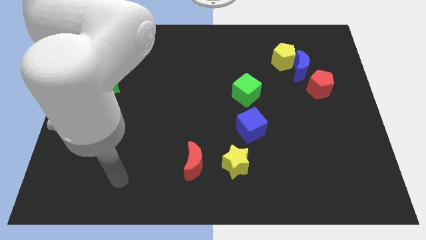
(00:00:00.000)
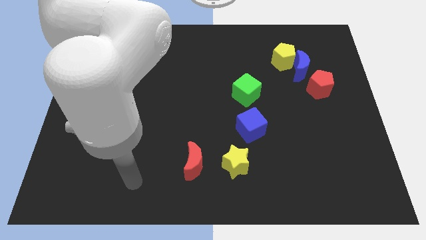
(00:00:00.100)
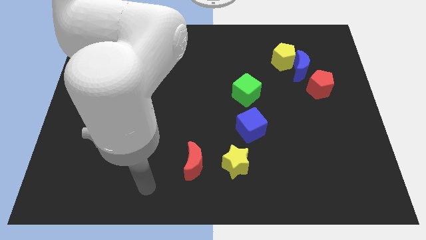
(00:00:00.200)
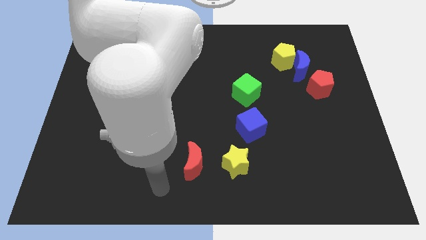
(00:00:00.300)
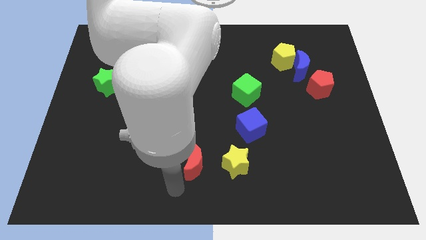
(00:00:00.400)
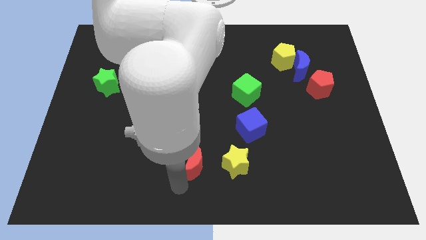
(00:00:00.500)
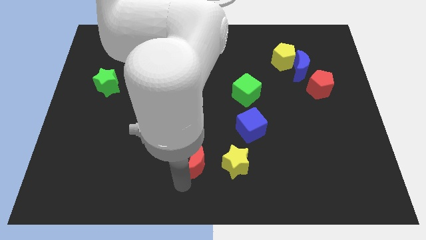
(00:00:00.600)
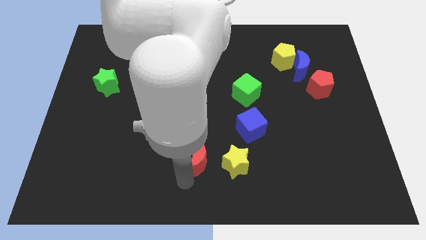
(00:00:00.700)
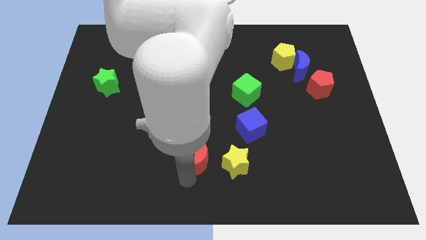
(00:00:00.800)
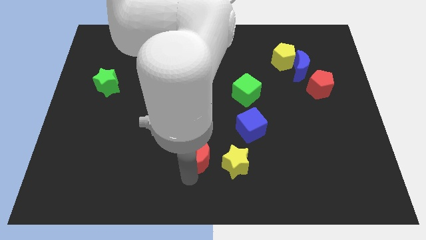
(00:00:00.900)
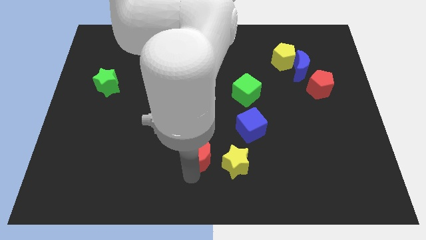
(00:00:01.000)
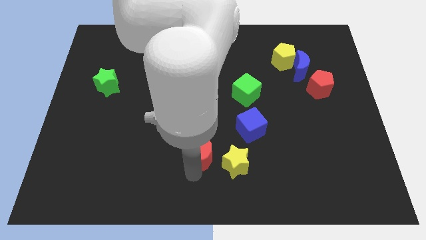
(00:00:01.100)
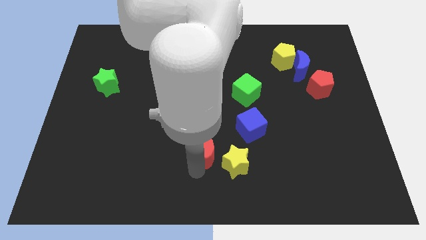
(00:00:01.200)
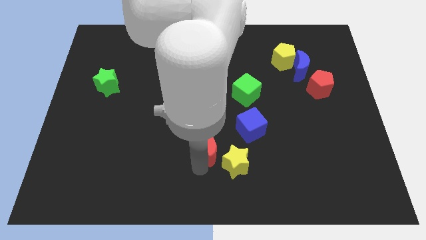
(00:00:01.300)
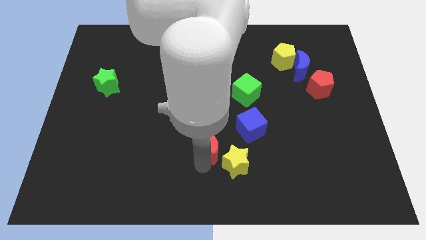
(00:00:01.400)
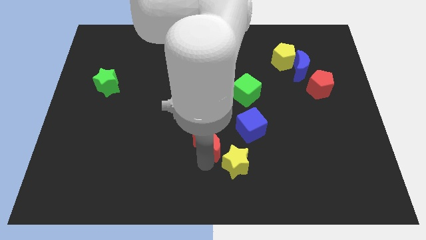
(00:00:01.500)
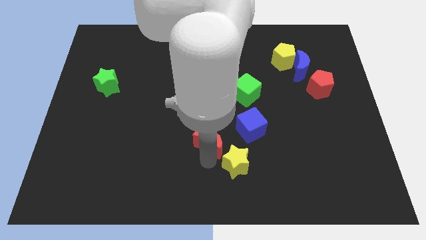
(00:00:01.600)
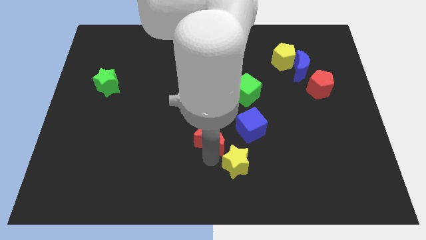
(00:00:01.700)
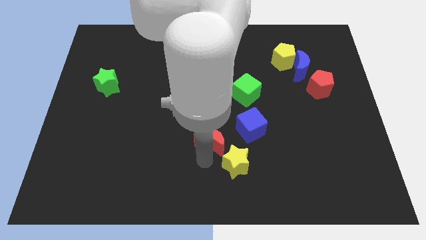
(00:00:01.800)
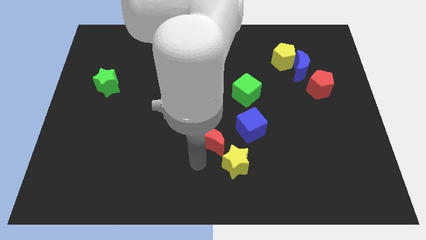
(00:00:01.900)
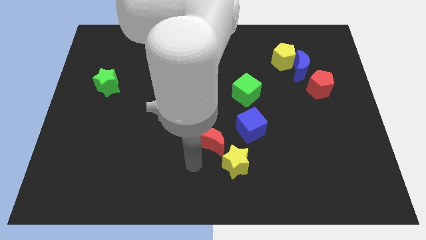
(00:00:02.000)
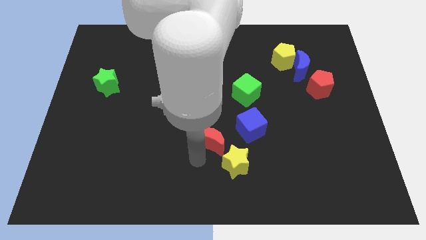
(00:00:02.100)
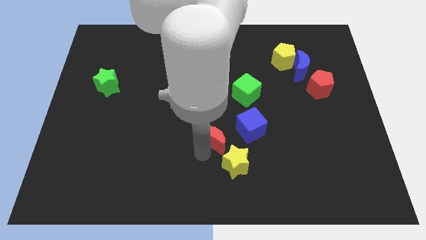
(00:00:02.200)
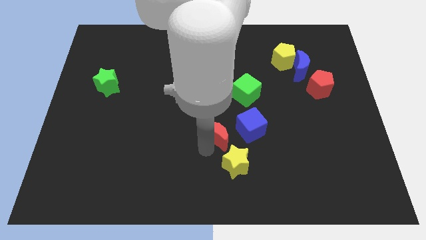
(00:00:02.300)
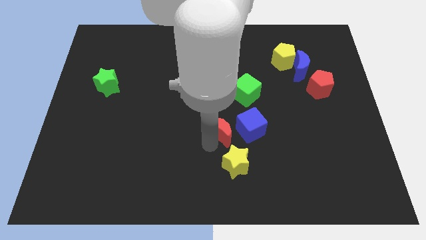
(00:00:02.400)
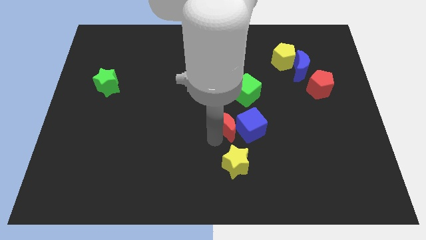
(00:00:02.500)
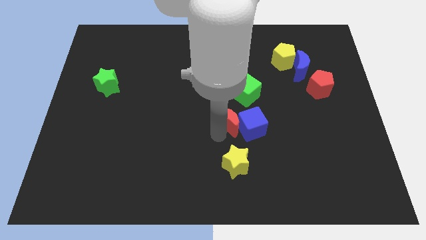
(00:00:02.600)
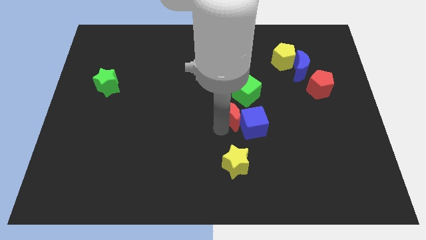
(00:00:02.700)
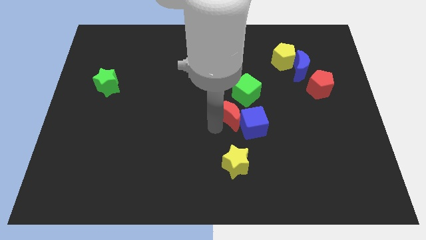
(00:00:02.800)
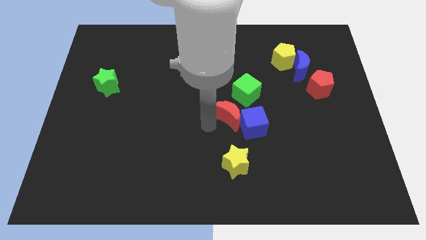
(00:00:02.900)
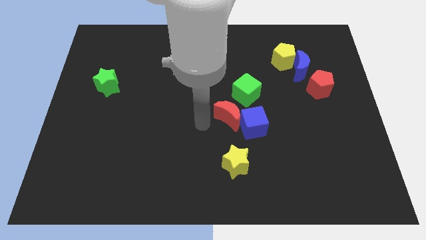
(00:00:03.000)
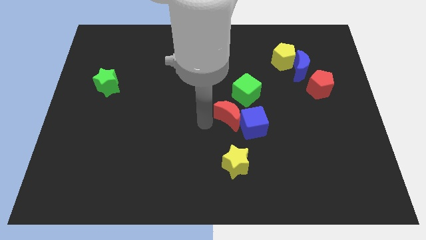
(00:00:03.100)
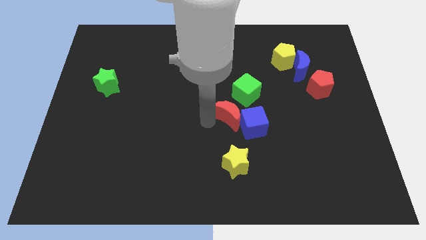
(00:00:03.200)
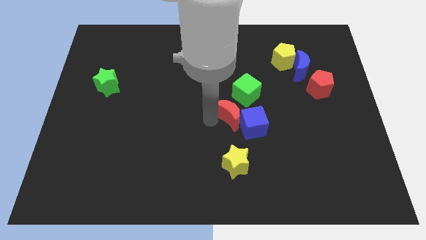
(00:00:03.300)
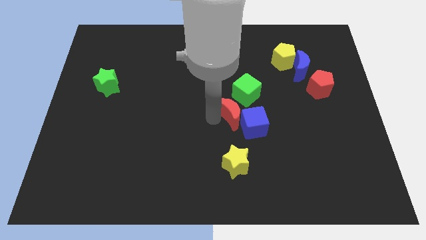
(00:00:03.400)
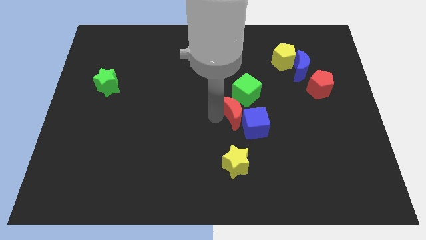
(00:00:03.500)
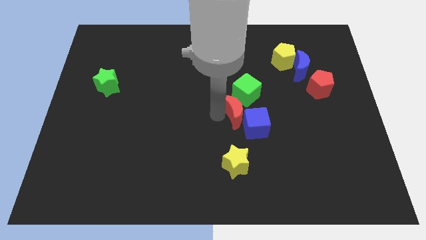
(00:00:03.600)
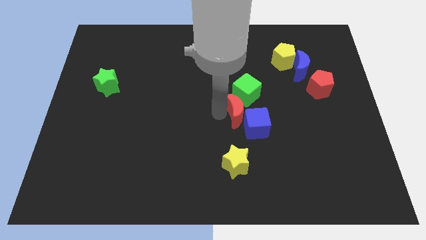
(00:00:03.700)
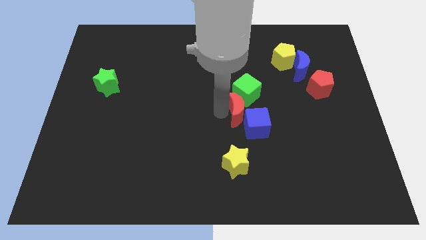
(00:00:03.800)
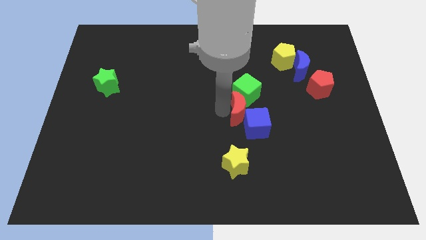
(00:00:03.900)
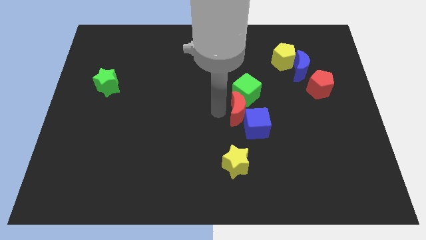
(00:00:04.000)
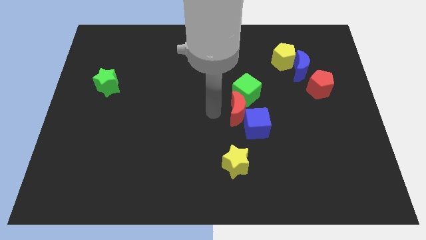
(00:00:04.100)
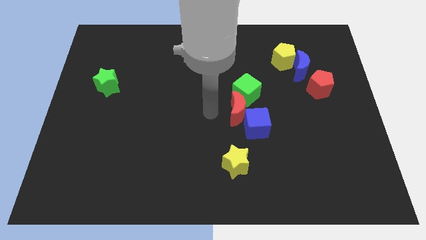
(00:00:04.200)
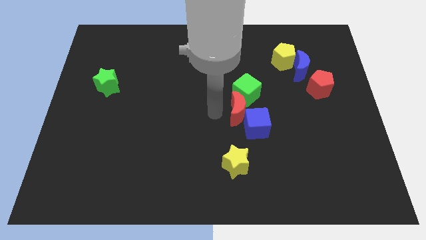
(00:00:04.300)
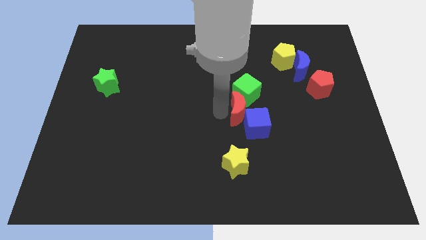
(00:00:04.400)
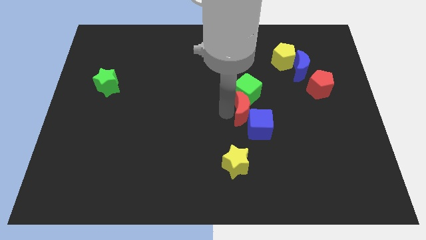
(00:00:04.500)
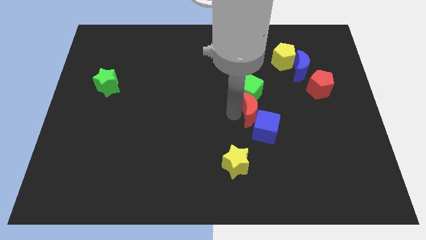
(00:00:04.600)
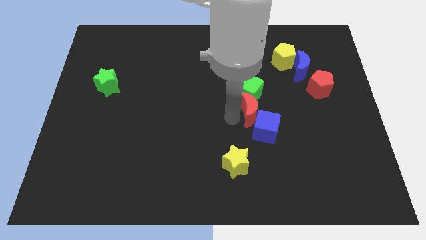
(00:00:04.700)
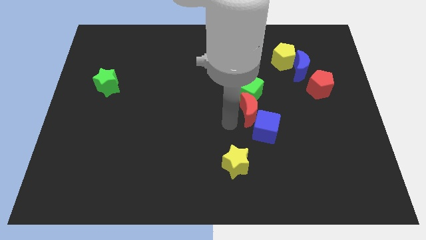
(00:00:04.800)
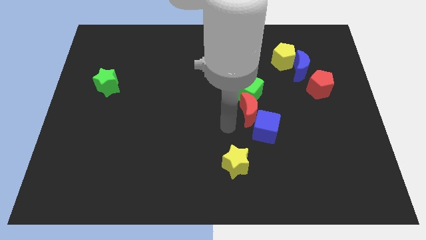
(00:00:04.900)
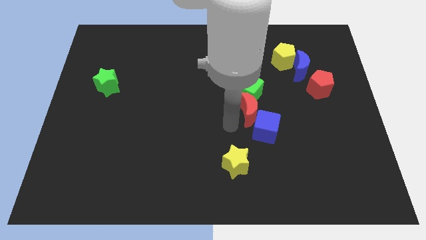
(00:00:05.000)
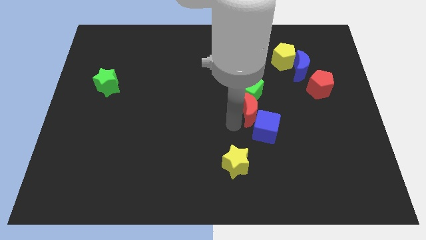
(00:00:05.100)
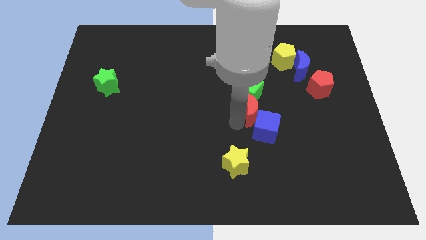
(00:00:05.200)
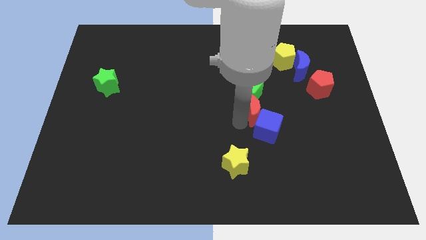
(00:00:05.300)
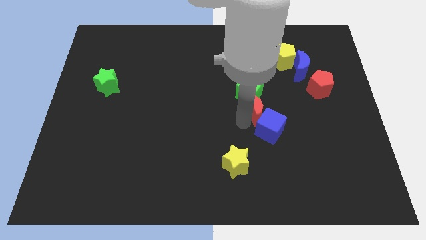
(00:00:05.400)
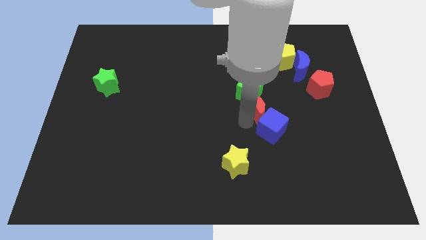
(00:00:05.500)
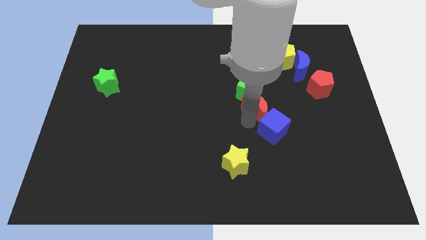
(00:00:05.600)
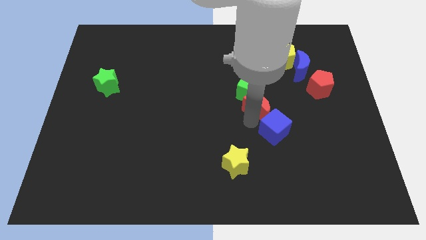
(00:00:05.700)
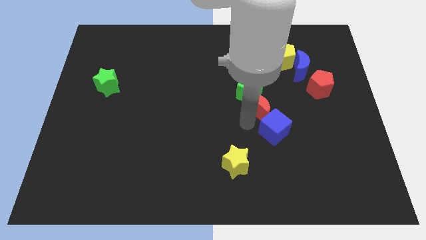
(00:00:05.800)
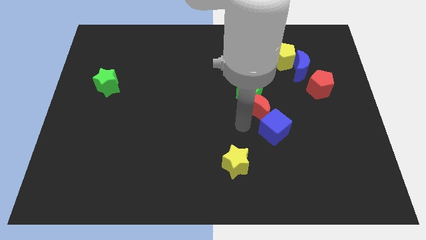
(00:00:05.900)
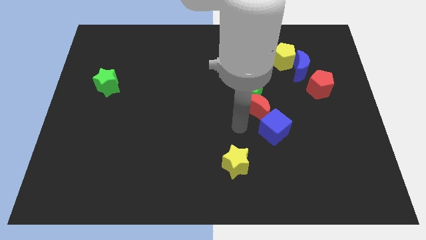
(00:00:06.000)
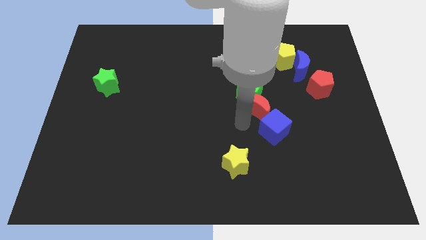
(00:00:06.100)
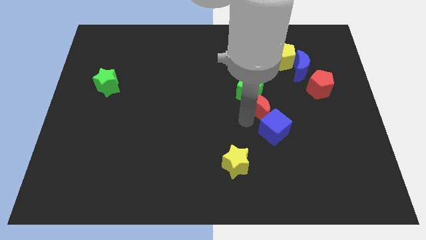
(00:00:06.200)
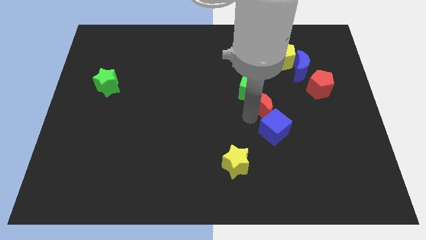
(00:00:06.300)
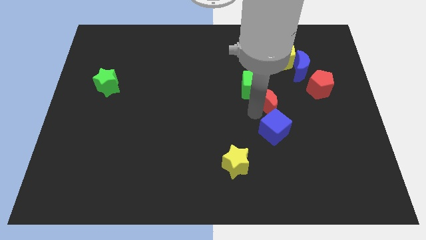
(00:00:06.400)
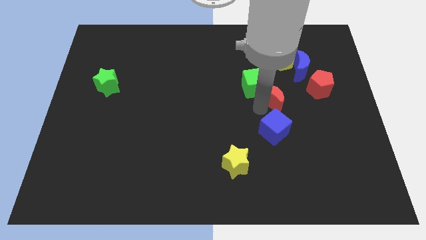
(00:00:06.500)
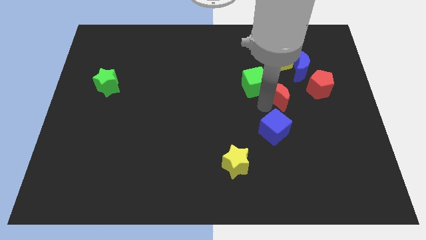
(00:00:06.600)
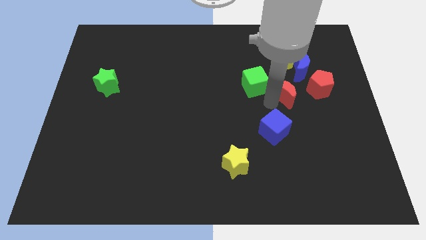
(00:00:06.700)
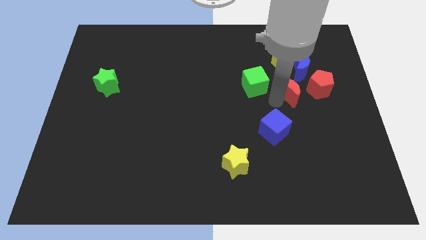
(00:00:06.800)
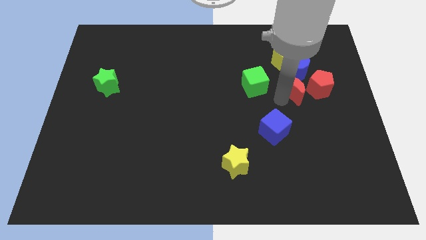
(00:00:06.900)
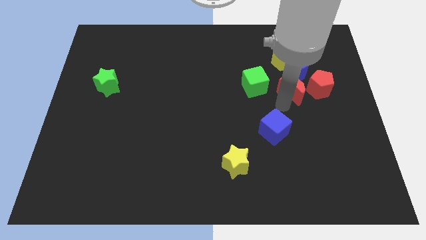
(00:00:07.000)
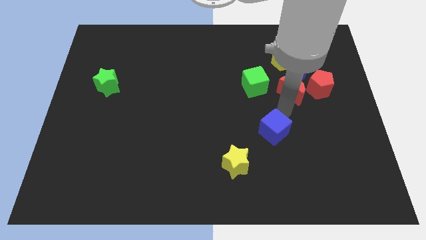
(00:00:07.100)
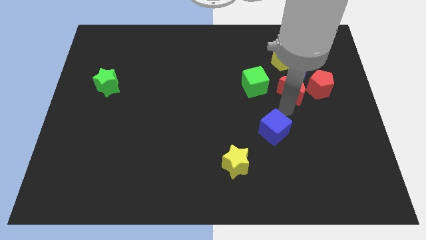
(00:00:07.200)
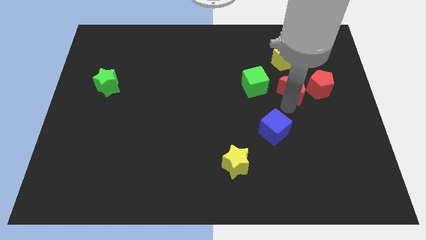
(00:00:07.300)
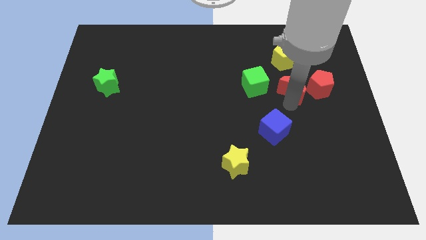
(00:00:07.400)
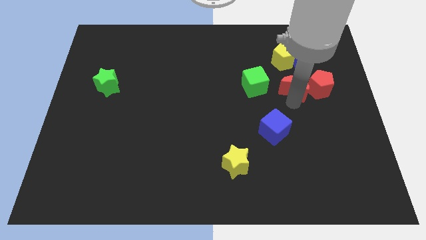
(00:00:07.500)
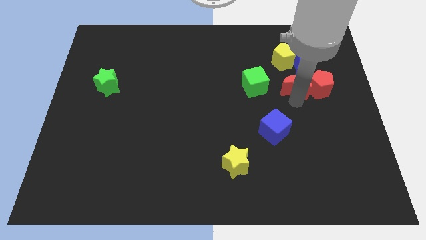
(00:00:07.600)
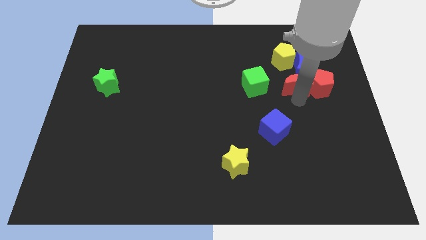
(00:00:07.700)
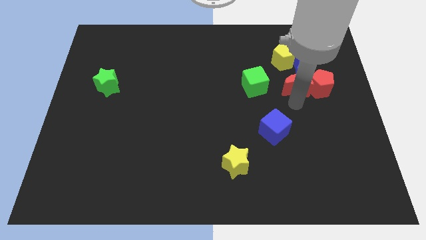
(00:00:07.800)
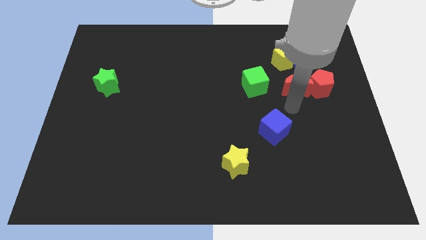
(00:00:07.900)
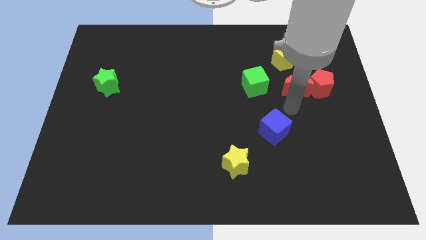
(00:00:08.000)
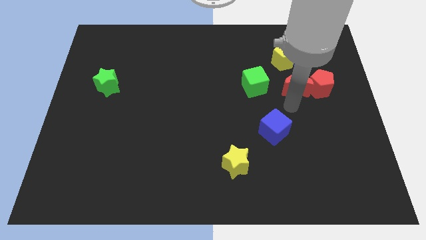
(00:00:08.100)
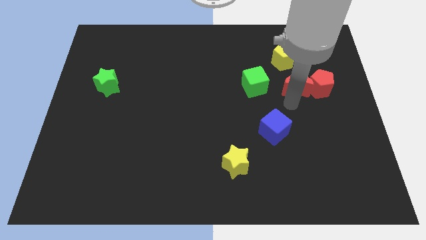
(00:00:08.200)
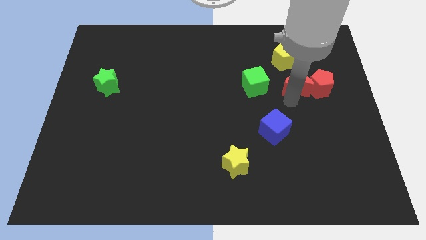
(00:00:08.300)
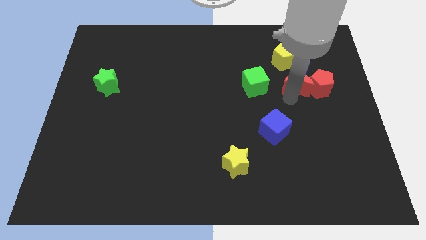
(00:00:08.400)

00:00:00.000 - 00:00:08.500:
push the red moon next to the blue moon
